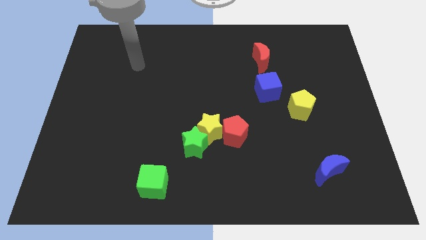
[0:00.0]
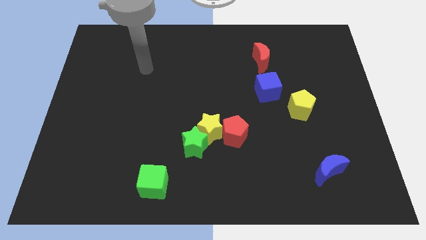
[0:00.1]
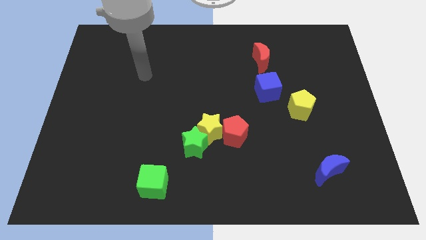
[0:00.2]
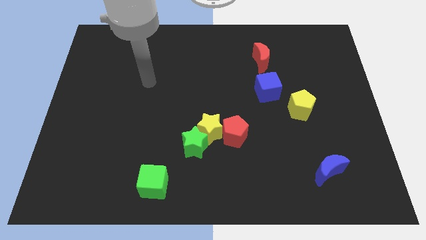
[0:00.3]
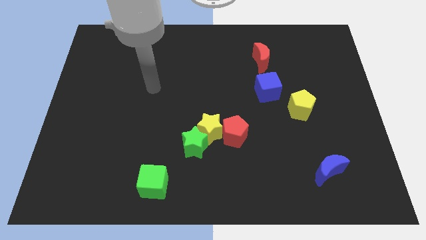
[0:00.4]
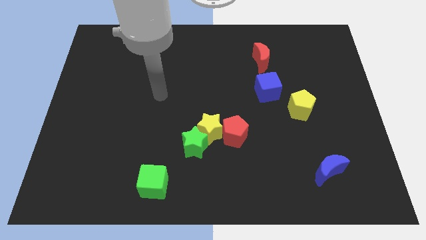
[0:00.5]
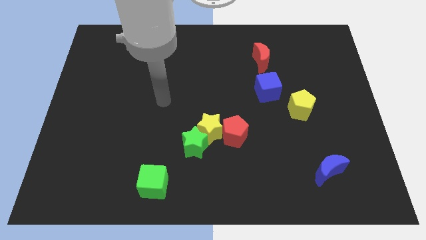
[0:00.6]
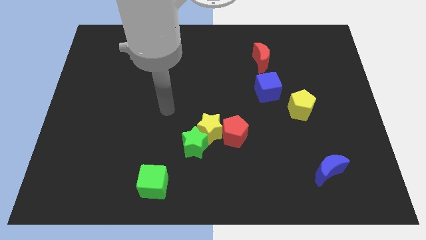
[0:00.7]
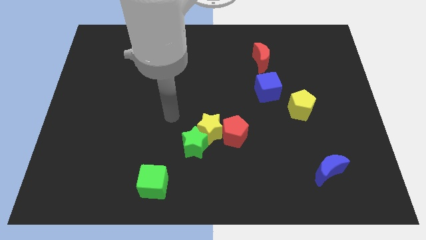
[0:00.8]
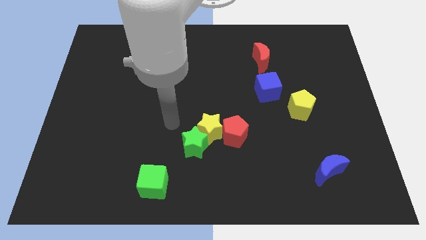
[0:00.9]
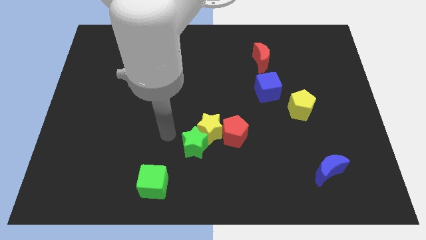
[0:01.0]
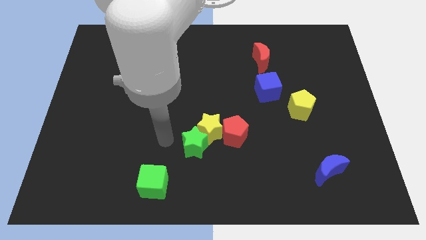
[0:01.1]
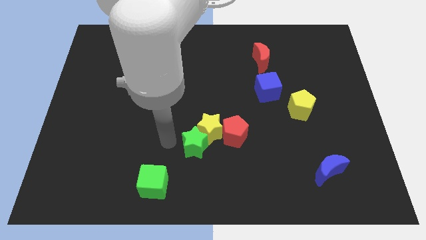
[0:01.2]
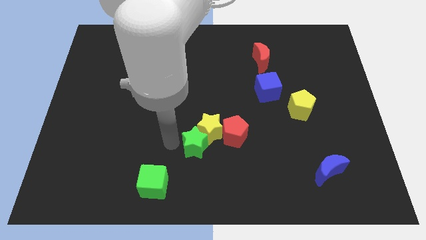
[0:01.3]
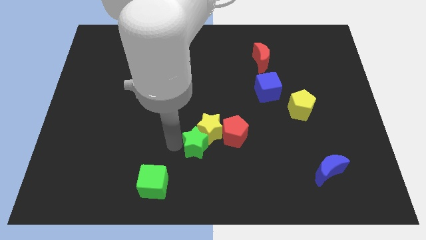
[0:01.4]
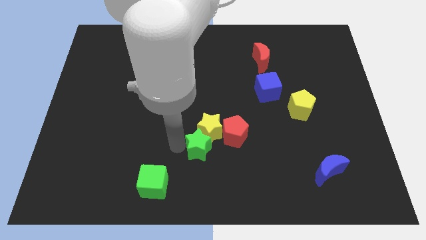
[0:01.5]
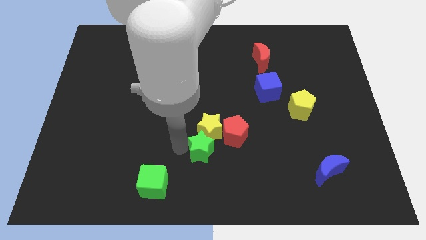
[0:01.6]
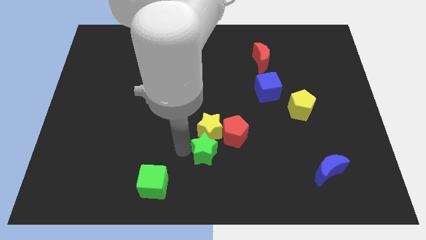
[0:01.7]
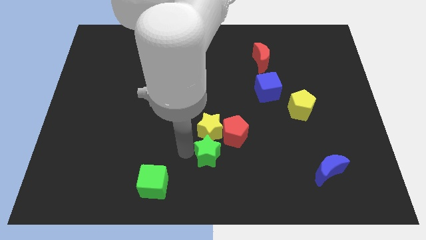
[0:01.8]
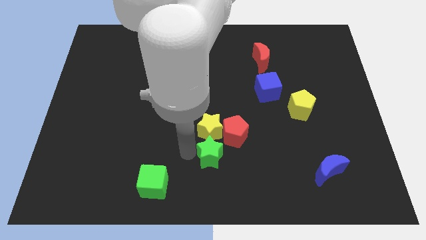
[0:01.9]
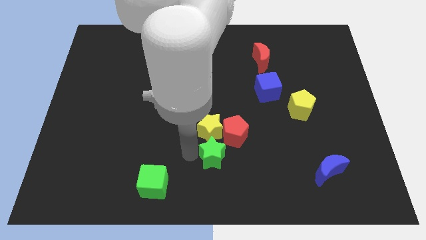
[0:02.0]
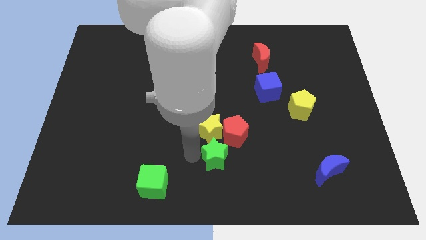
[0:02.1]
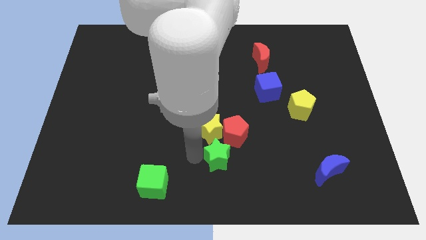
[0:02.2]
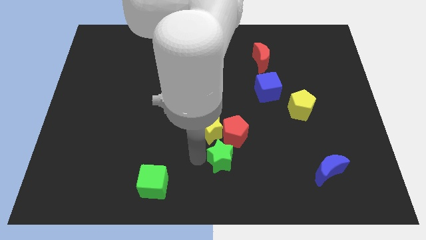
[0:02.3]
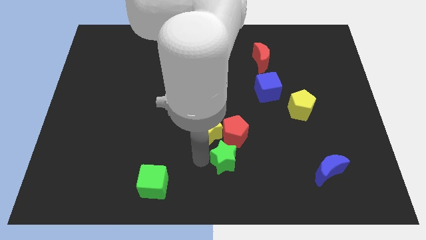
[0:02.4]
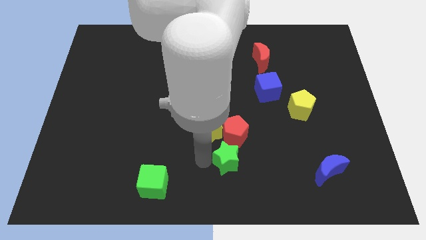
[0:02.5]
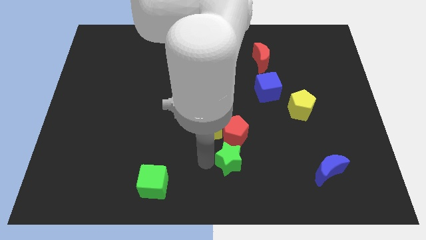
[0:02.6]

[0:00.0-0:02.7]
slide the green star to the right a little

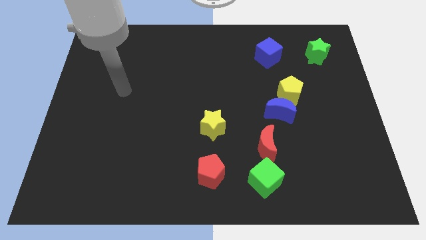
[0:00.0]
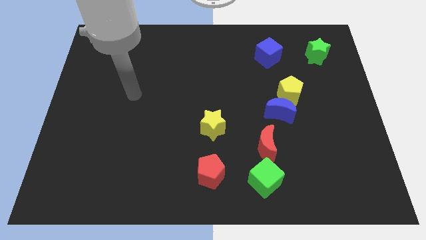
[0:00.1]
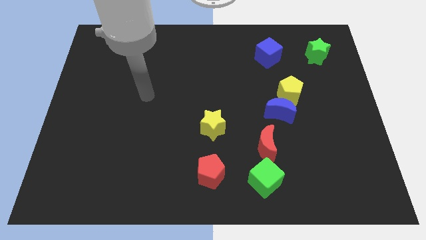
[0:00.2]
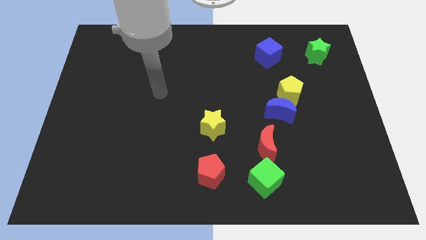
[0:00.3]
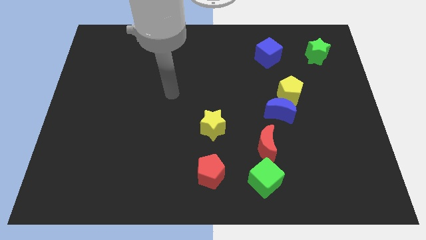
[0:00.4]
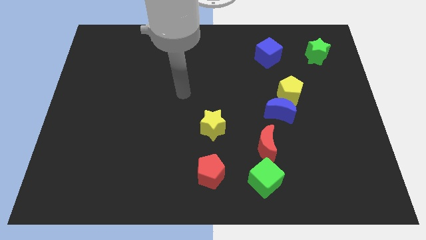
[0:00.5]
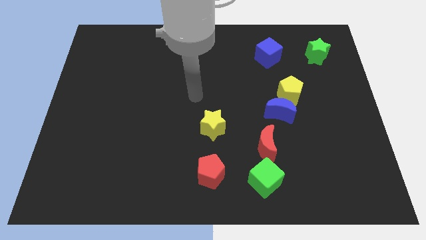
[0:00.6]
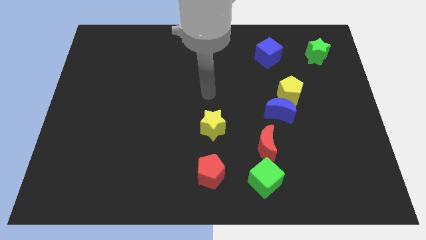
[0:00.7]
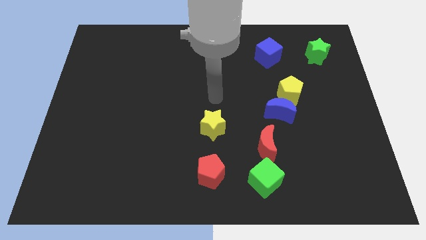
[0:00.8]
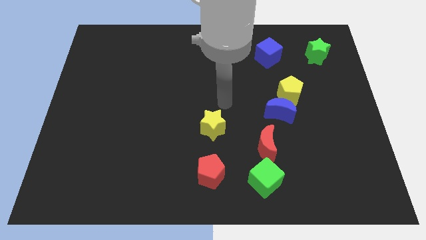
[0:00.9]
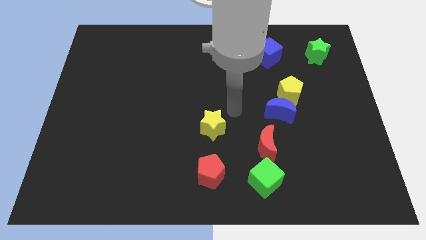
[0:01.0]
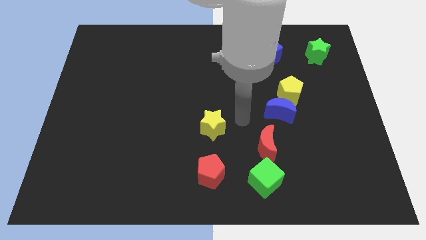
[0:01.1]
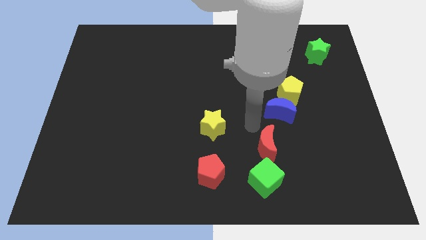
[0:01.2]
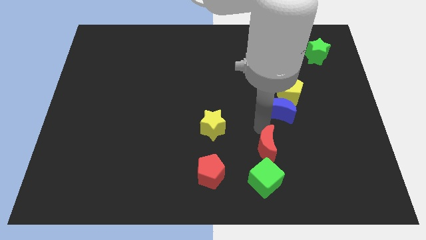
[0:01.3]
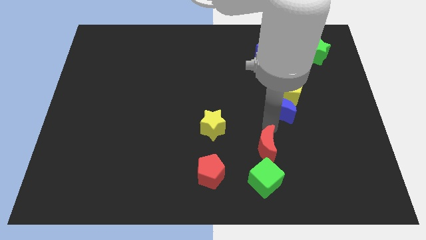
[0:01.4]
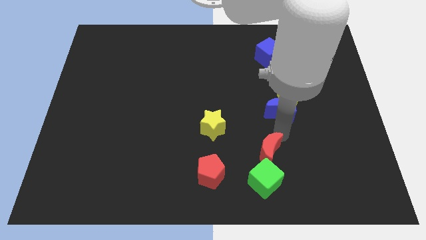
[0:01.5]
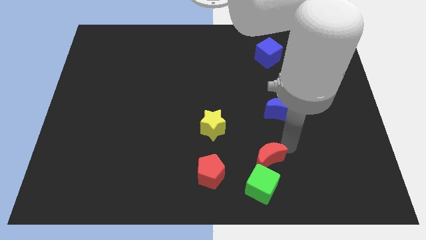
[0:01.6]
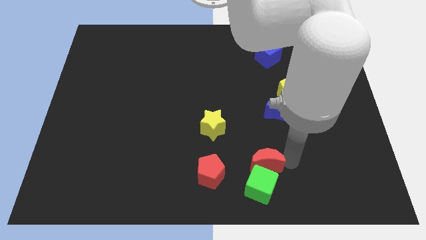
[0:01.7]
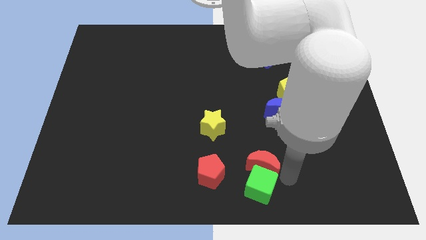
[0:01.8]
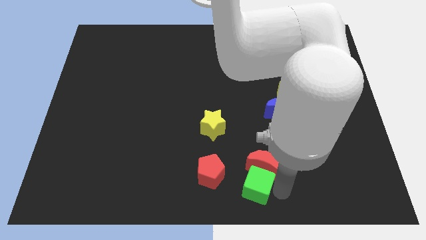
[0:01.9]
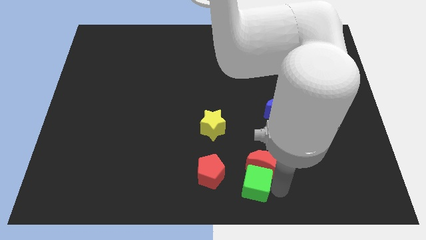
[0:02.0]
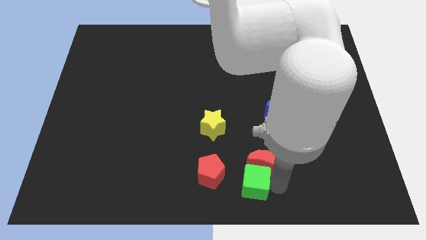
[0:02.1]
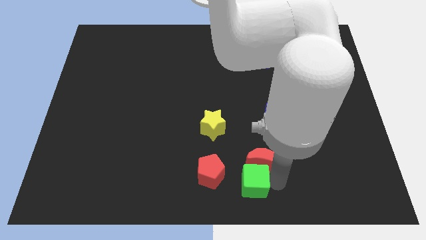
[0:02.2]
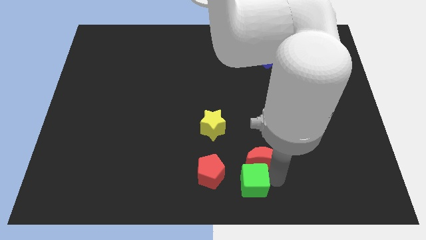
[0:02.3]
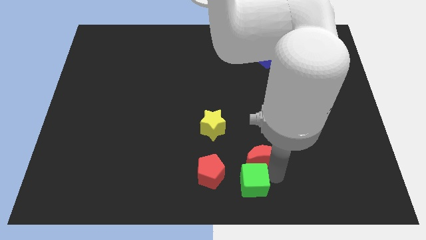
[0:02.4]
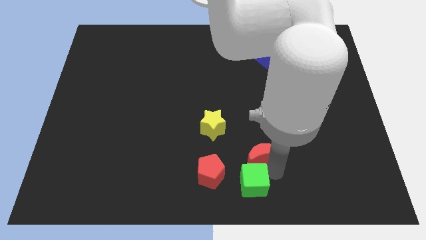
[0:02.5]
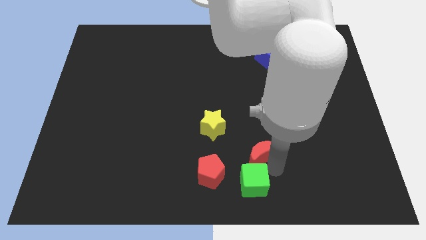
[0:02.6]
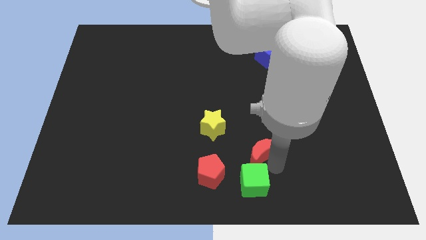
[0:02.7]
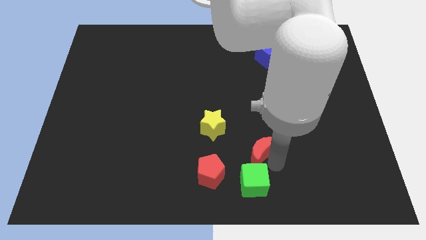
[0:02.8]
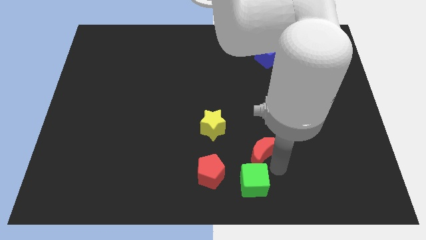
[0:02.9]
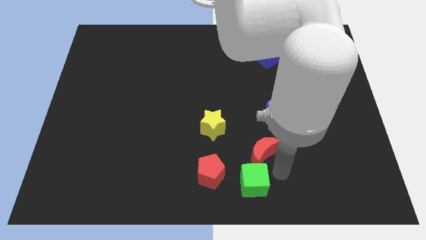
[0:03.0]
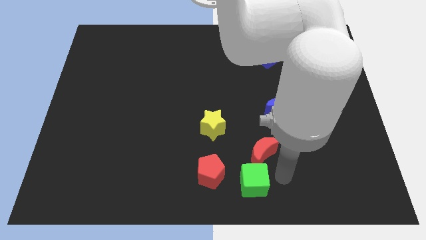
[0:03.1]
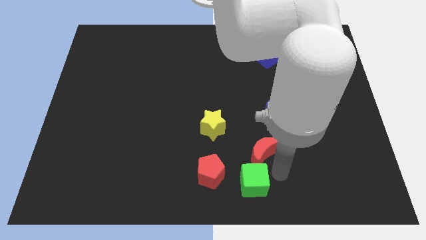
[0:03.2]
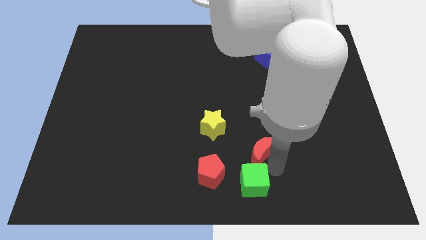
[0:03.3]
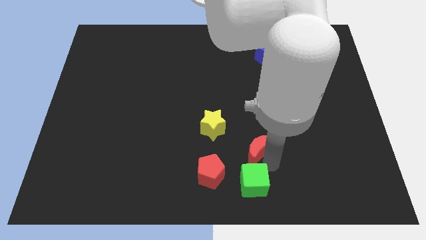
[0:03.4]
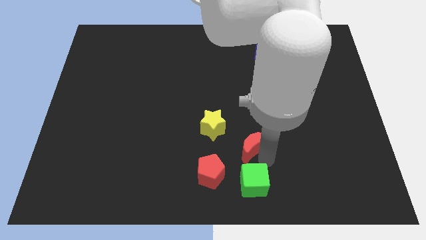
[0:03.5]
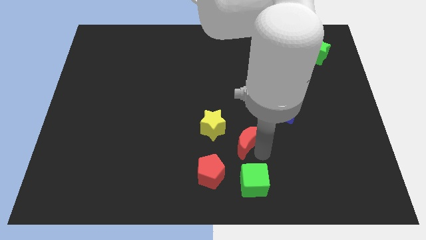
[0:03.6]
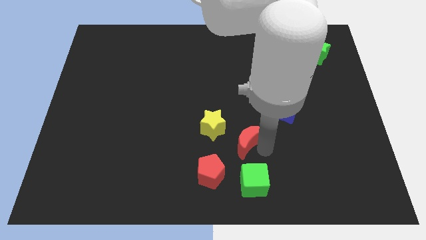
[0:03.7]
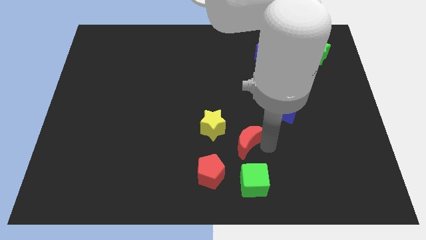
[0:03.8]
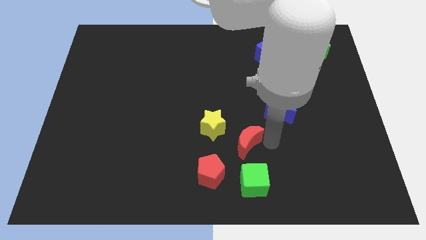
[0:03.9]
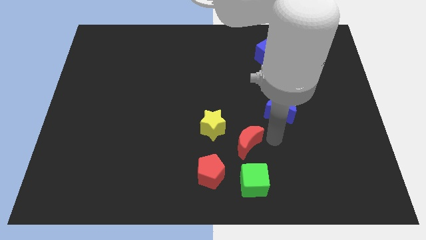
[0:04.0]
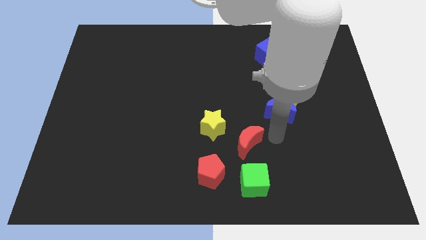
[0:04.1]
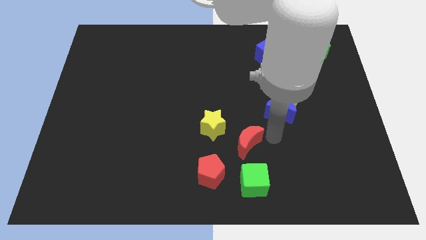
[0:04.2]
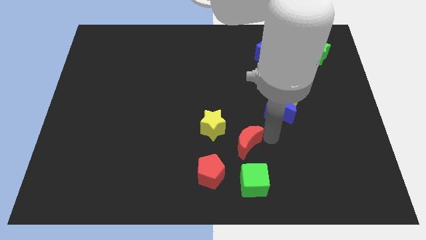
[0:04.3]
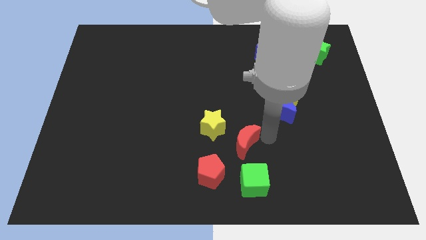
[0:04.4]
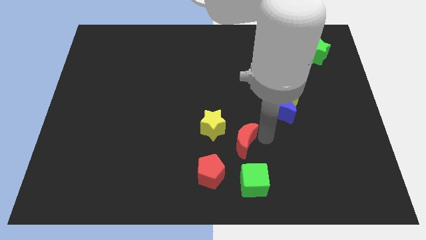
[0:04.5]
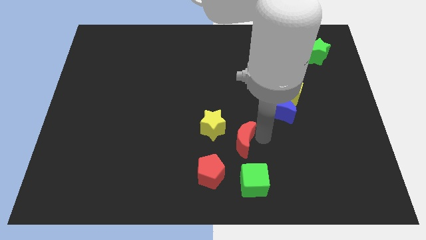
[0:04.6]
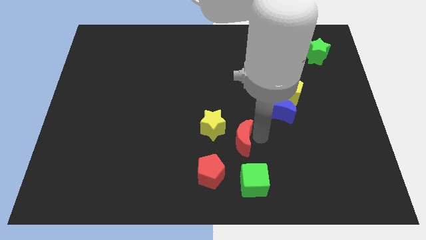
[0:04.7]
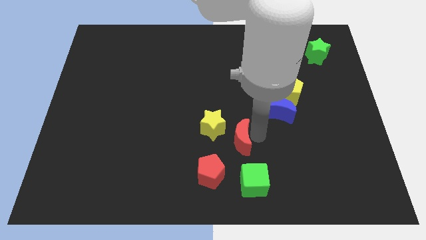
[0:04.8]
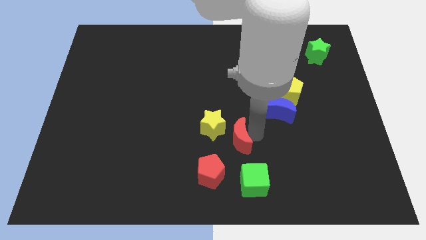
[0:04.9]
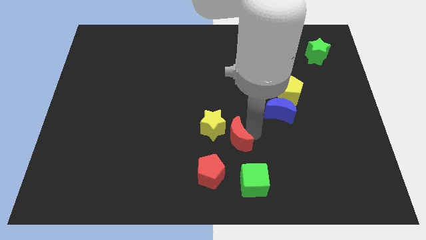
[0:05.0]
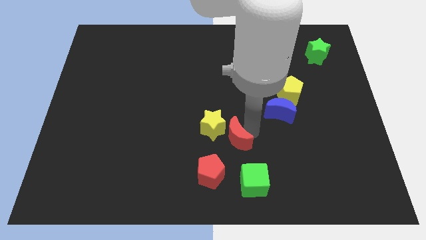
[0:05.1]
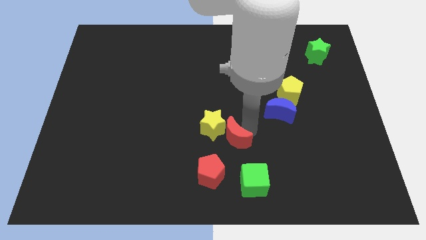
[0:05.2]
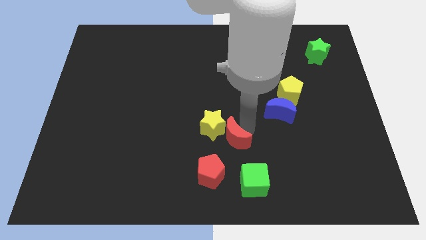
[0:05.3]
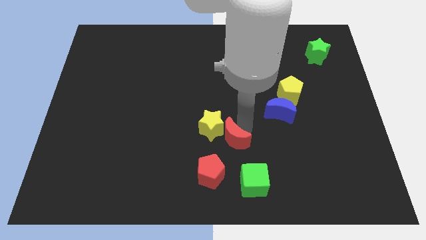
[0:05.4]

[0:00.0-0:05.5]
move the red moon a little bit to the left

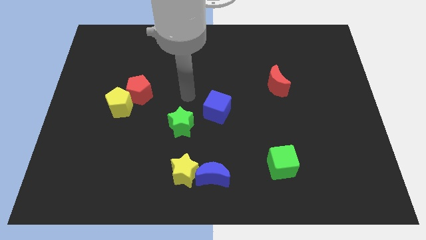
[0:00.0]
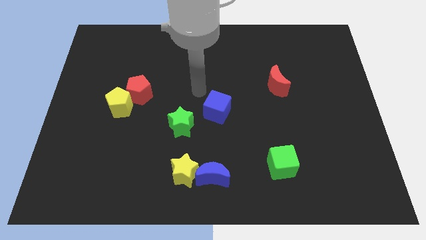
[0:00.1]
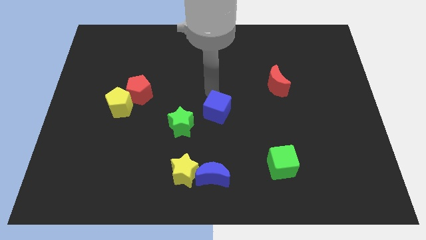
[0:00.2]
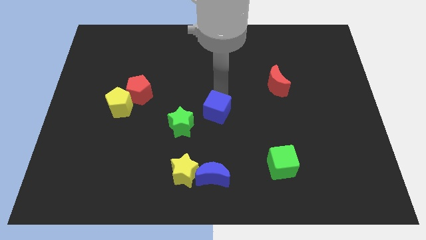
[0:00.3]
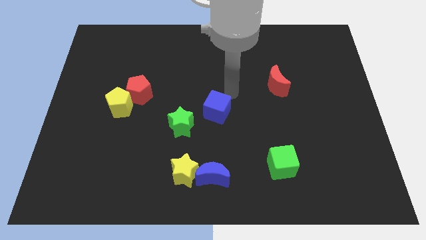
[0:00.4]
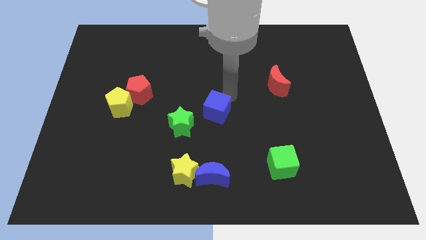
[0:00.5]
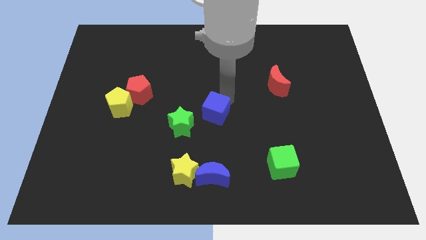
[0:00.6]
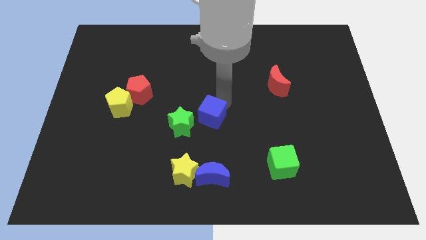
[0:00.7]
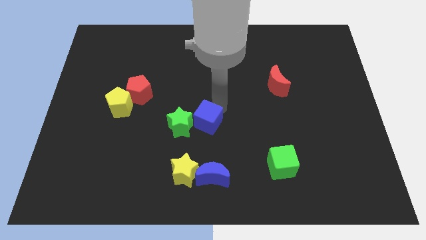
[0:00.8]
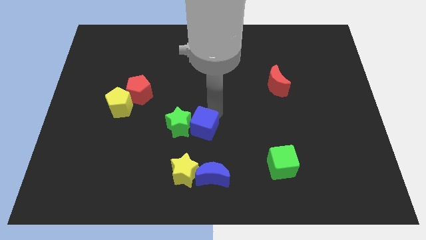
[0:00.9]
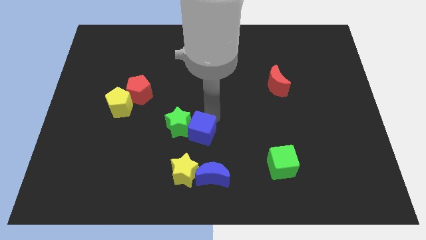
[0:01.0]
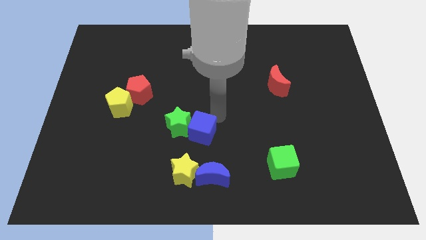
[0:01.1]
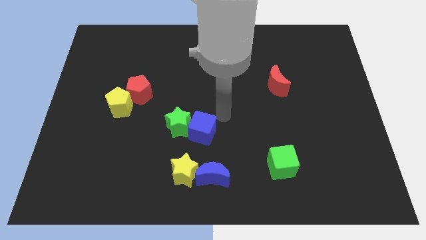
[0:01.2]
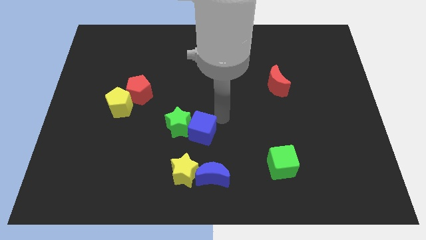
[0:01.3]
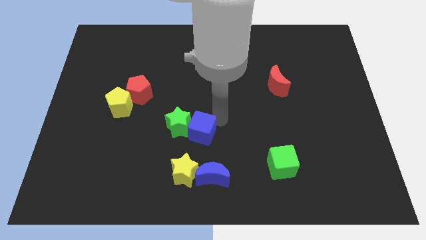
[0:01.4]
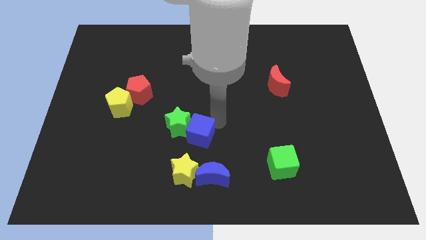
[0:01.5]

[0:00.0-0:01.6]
move the blue cube somewhat diagonally down and to the left
